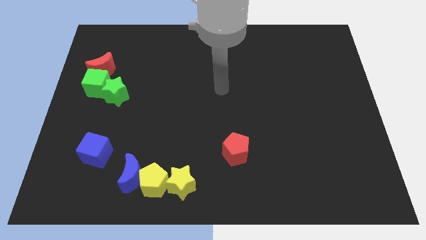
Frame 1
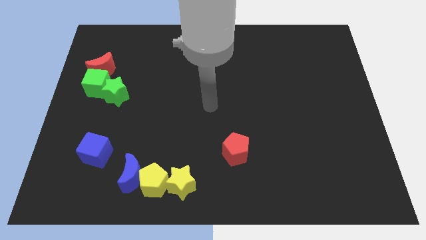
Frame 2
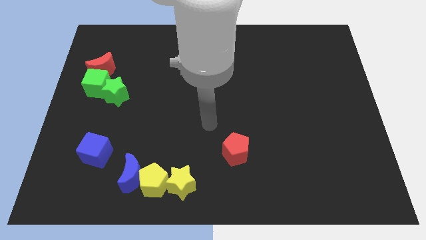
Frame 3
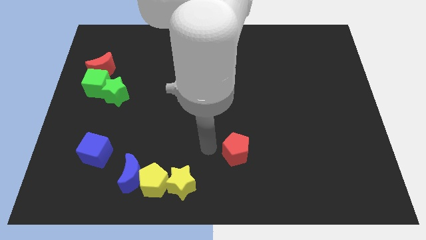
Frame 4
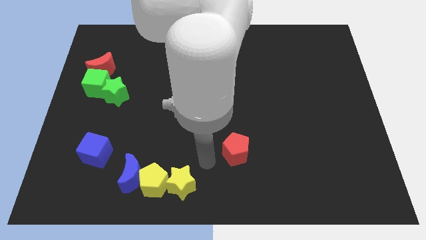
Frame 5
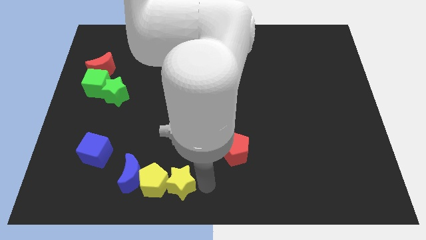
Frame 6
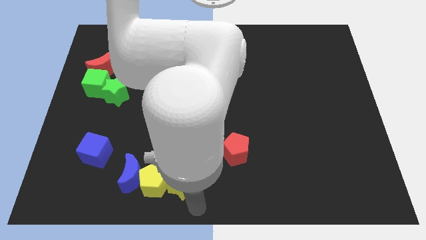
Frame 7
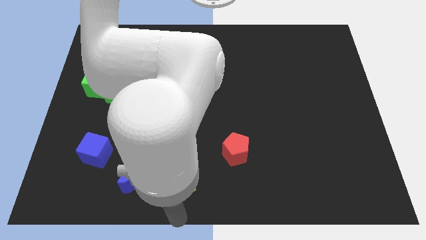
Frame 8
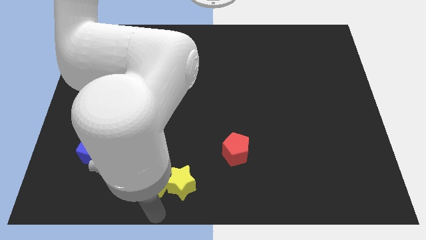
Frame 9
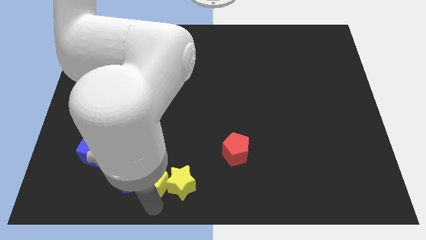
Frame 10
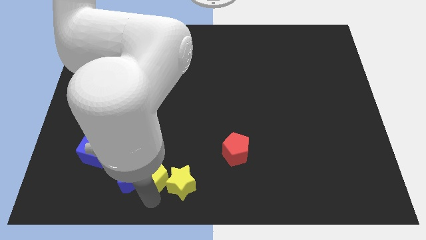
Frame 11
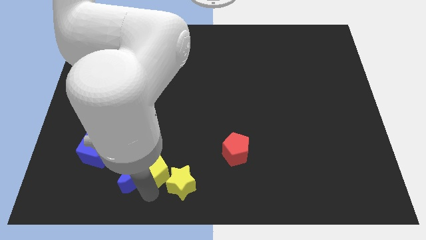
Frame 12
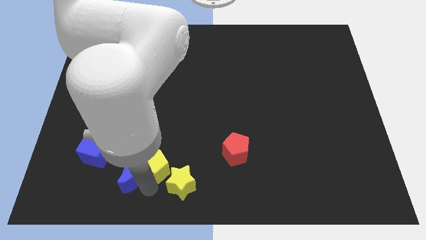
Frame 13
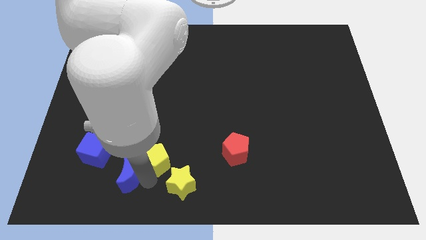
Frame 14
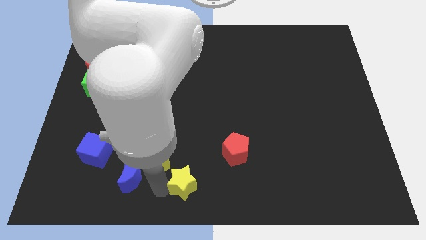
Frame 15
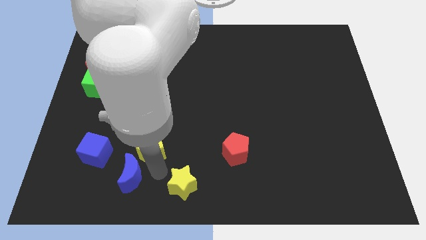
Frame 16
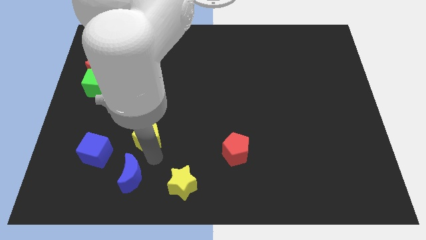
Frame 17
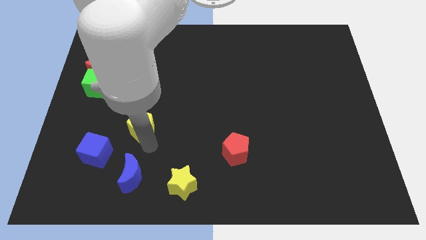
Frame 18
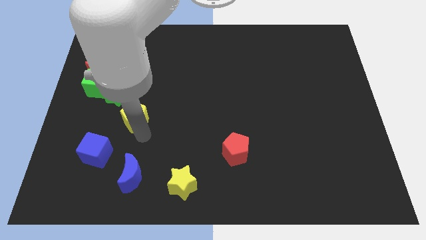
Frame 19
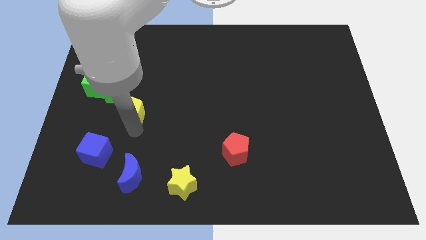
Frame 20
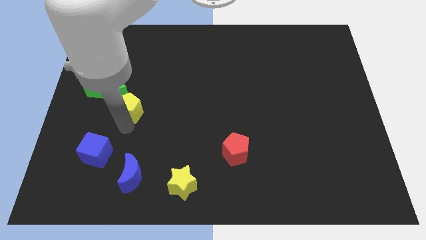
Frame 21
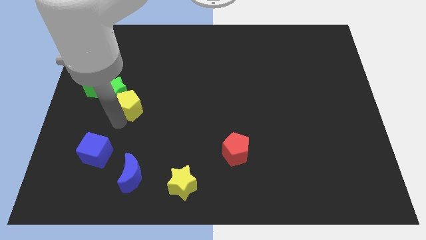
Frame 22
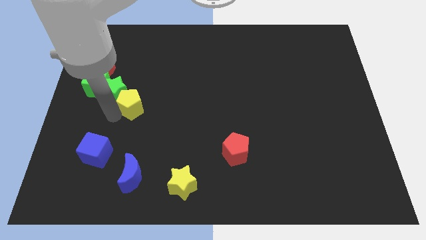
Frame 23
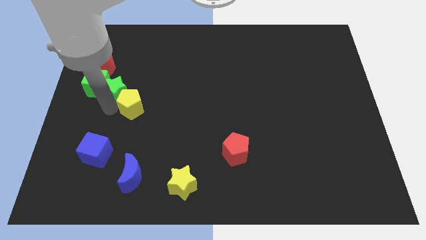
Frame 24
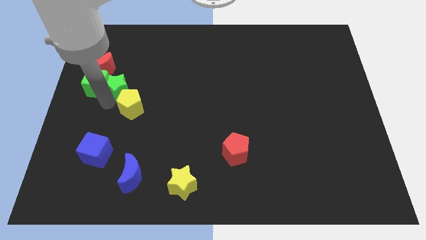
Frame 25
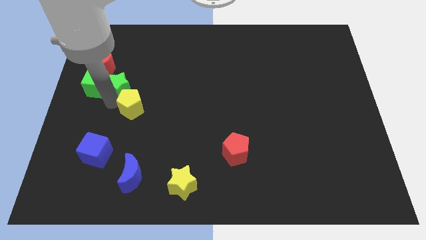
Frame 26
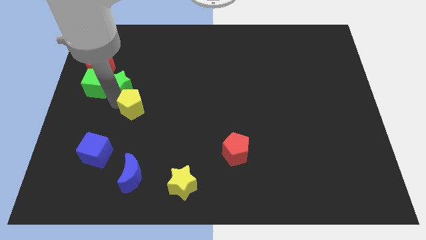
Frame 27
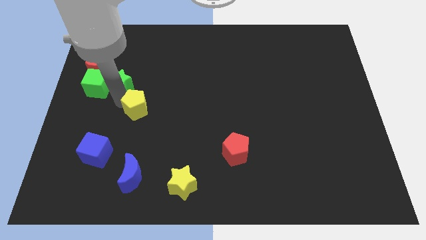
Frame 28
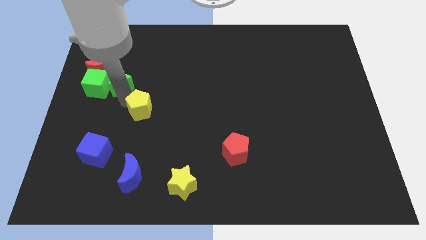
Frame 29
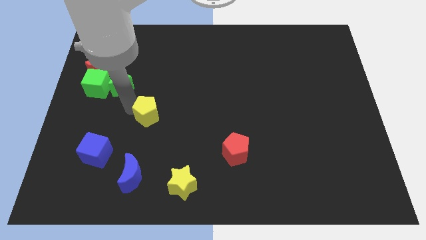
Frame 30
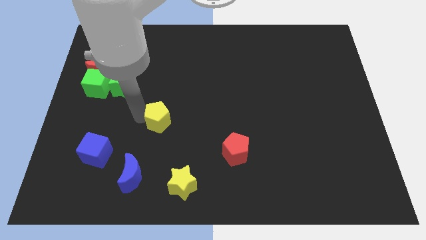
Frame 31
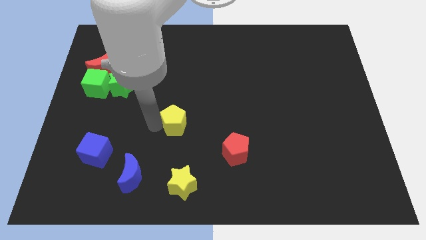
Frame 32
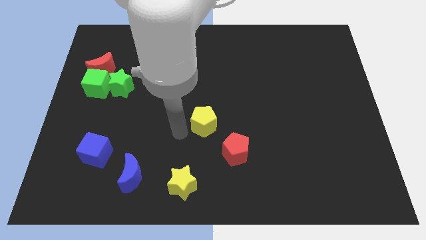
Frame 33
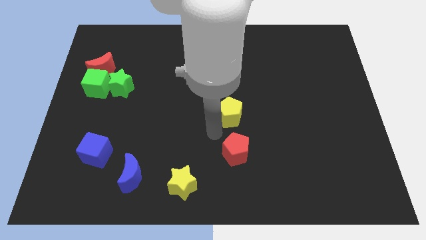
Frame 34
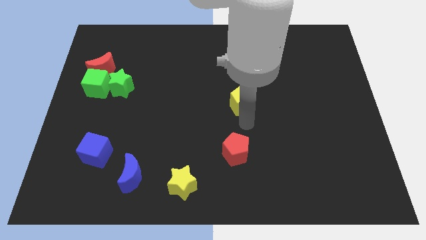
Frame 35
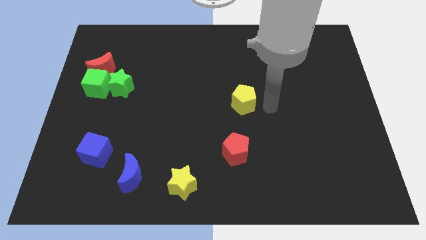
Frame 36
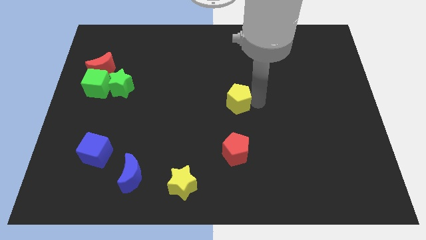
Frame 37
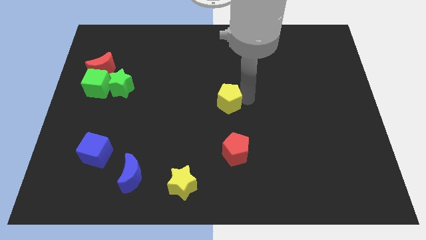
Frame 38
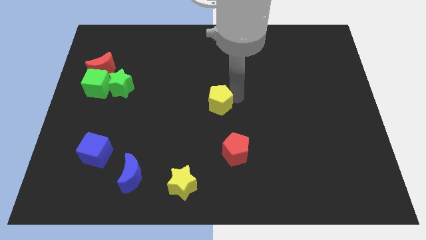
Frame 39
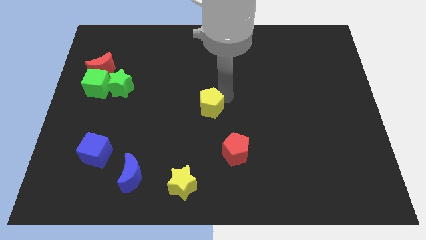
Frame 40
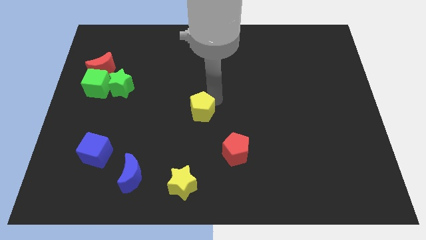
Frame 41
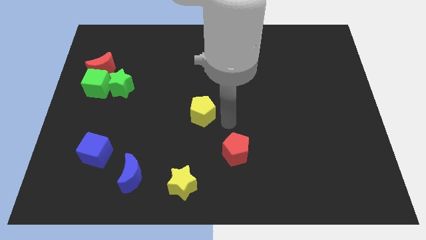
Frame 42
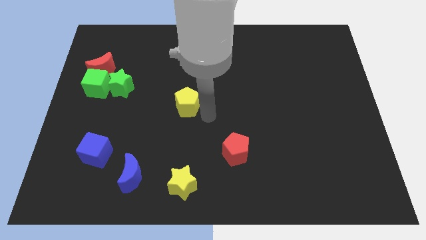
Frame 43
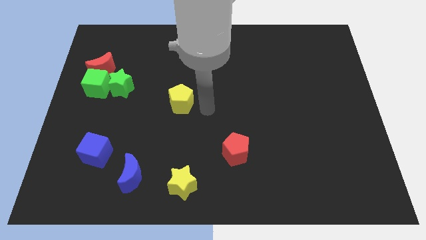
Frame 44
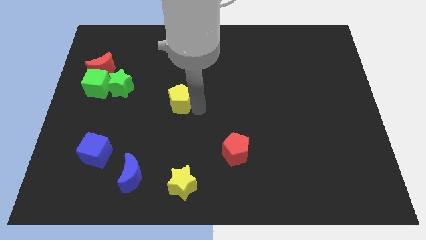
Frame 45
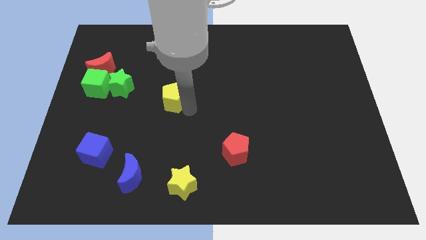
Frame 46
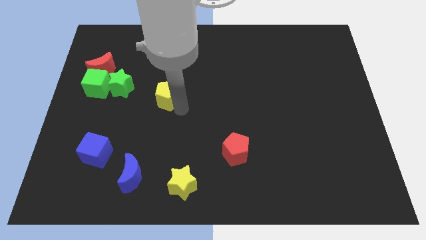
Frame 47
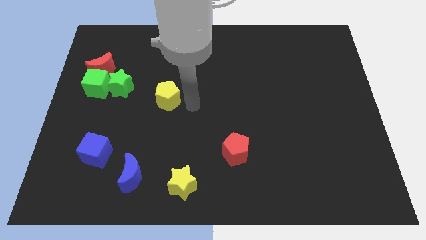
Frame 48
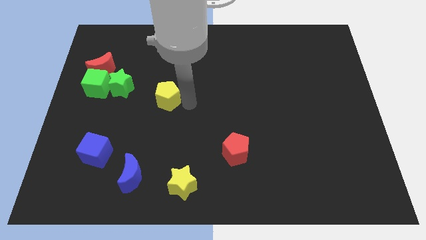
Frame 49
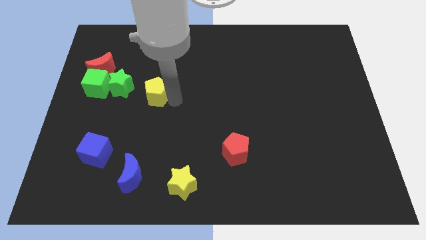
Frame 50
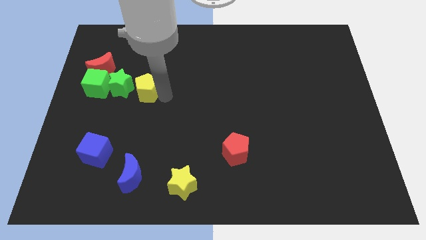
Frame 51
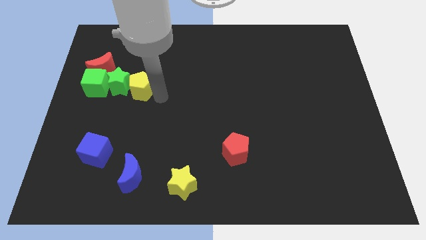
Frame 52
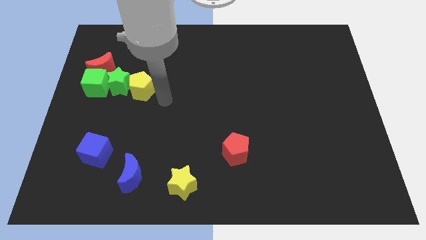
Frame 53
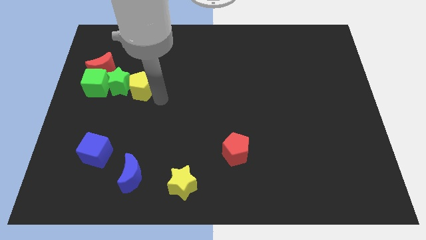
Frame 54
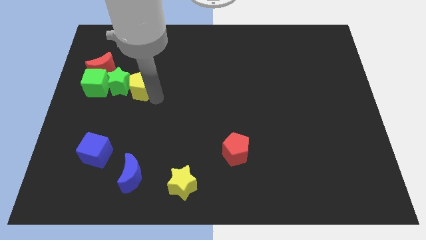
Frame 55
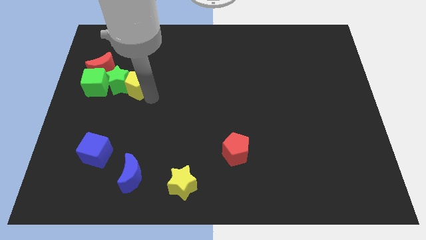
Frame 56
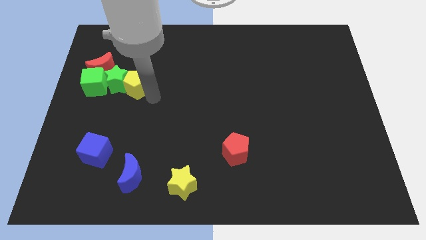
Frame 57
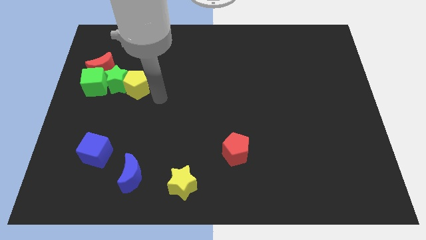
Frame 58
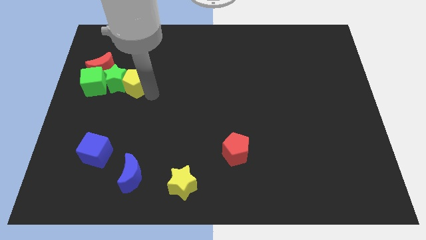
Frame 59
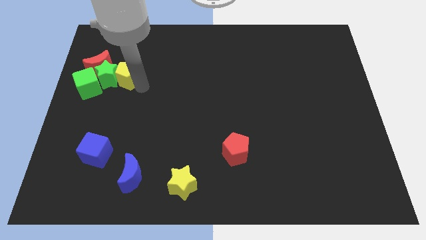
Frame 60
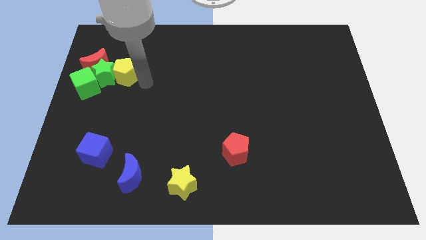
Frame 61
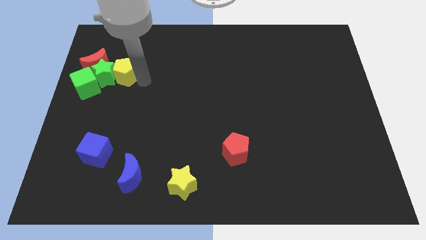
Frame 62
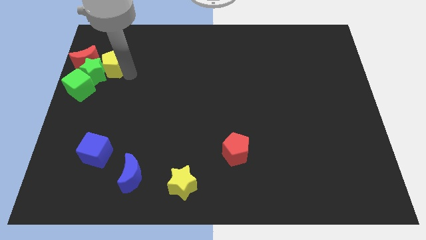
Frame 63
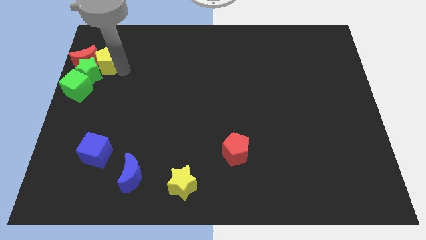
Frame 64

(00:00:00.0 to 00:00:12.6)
slide the yellow pentagon towards the red moon

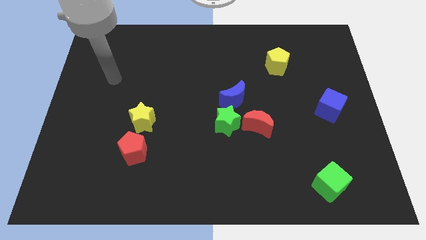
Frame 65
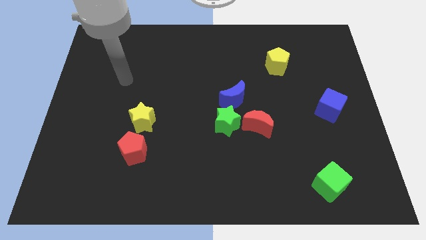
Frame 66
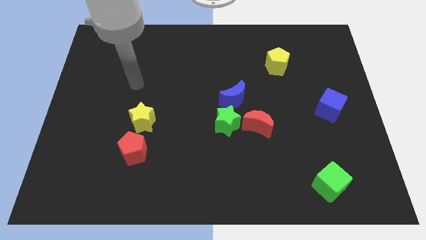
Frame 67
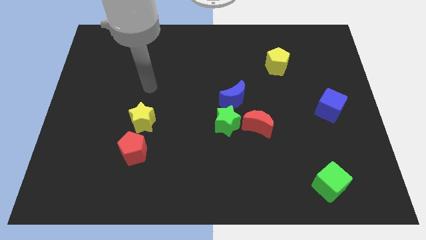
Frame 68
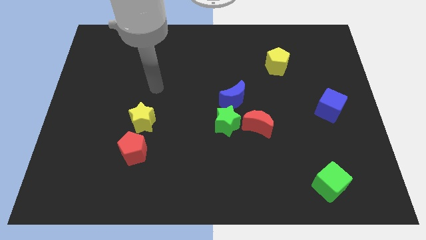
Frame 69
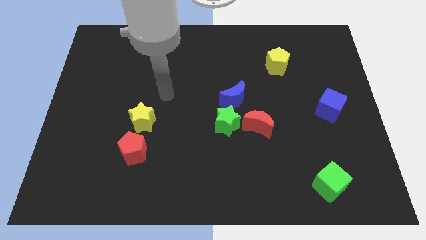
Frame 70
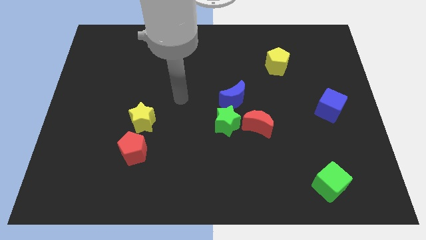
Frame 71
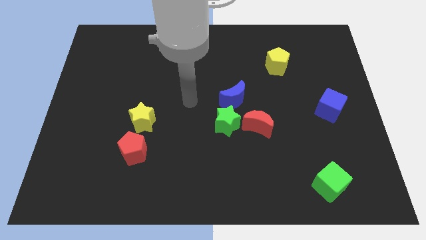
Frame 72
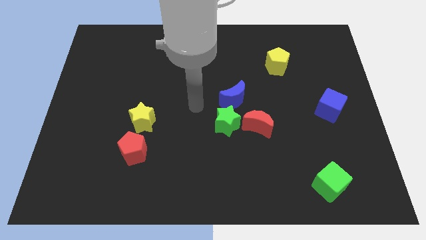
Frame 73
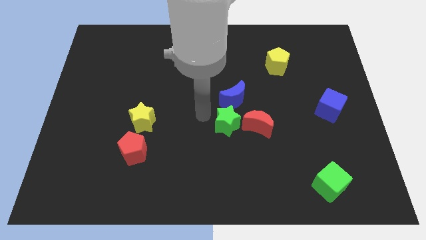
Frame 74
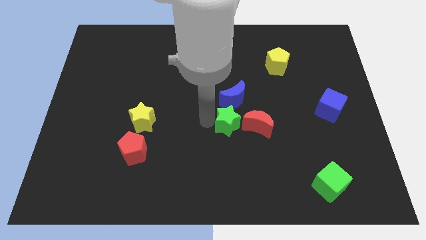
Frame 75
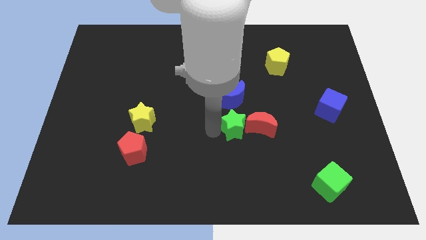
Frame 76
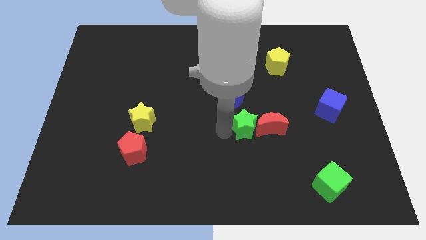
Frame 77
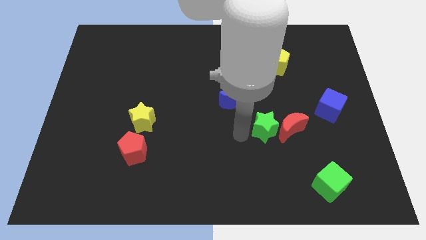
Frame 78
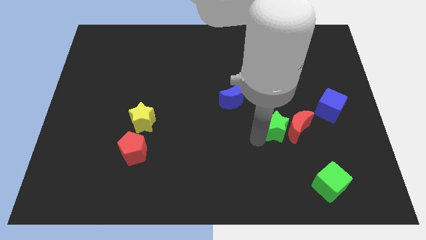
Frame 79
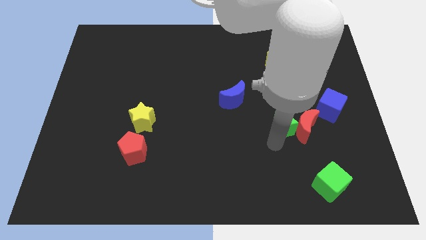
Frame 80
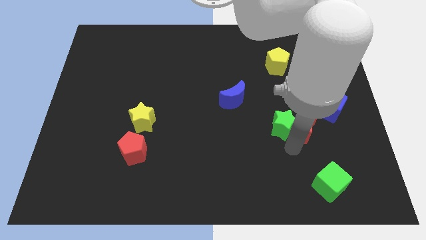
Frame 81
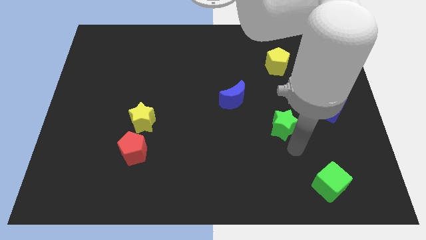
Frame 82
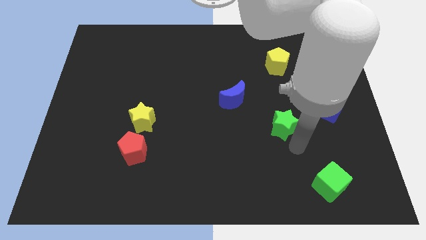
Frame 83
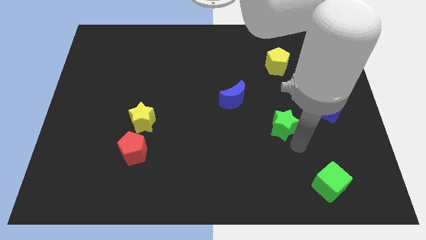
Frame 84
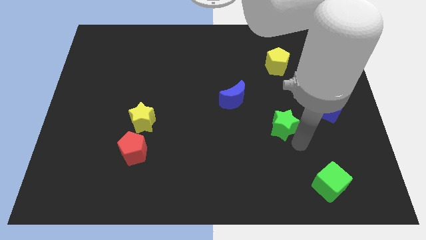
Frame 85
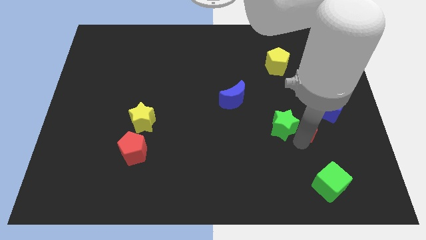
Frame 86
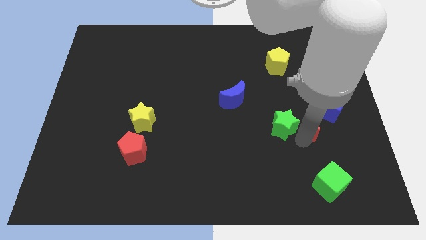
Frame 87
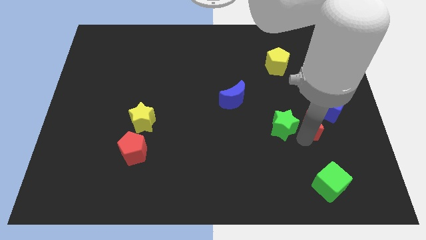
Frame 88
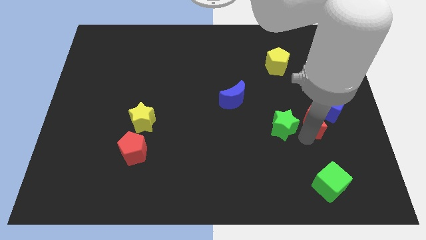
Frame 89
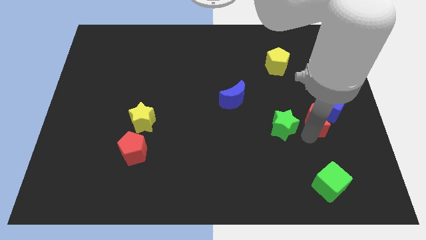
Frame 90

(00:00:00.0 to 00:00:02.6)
put the red moon to the blue cube
